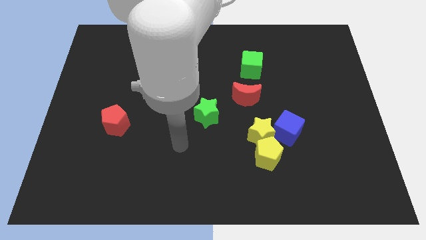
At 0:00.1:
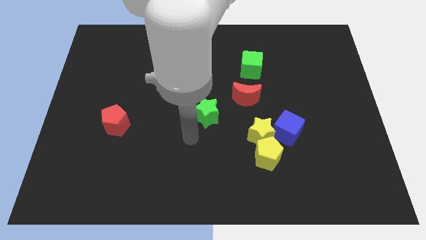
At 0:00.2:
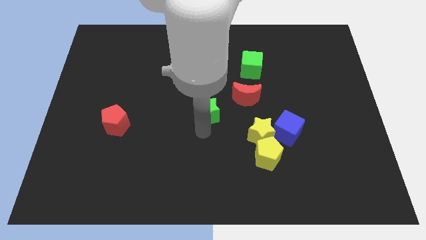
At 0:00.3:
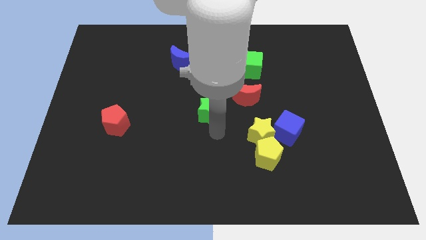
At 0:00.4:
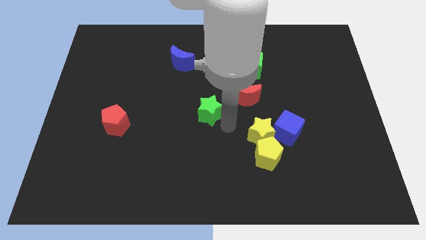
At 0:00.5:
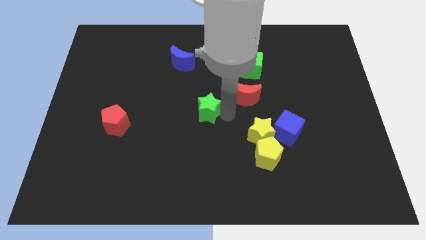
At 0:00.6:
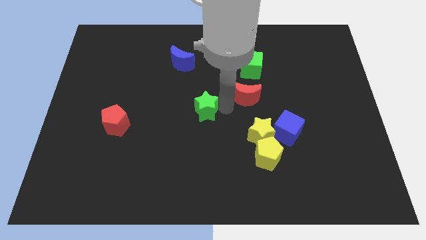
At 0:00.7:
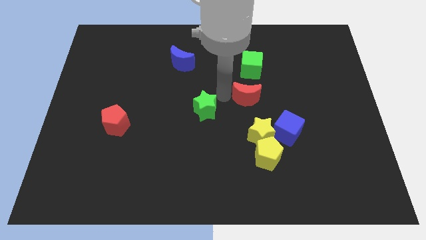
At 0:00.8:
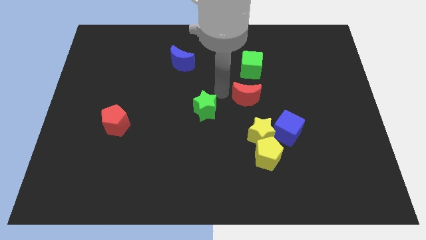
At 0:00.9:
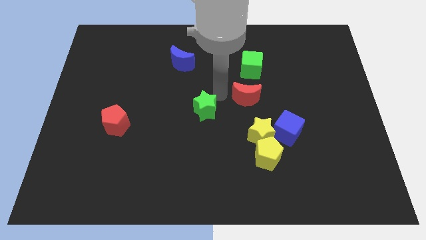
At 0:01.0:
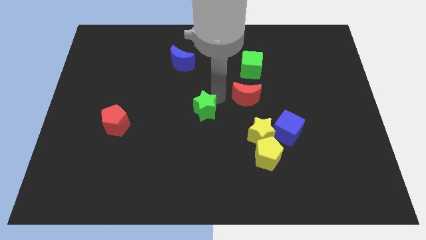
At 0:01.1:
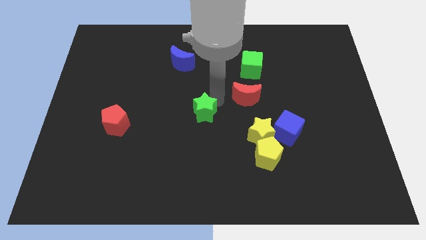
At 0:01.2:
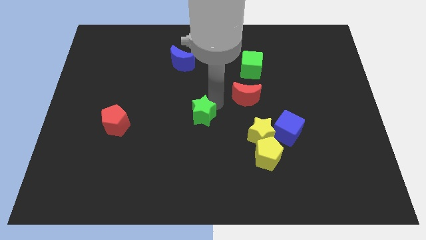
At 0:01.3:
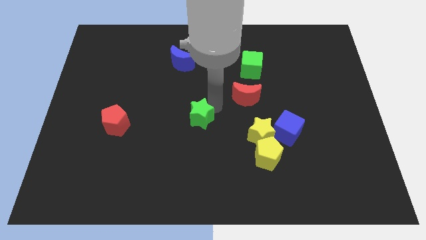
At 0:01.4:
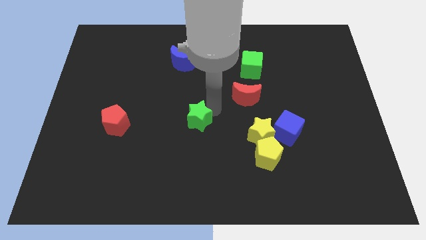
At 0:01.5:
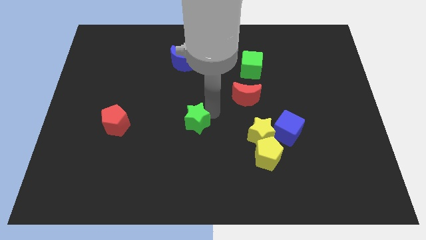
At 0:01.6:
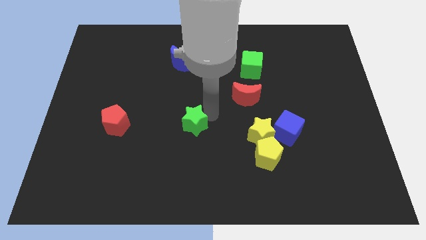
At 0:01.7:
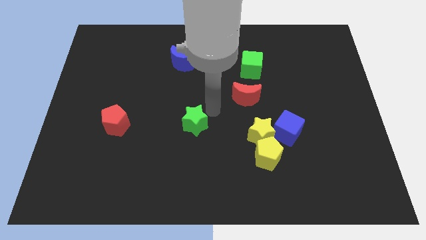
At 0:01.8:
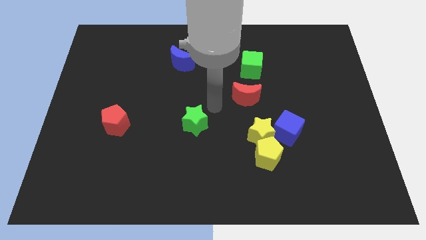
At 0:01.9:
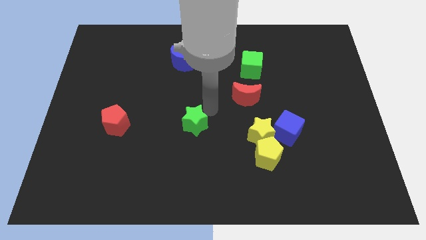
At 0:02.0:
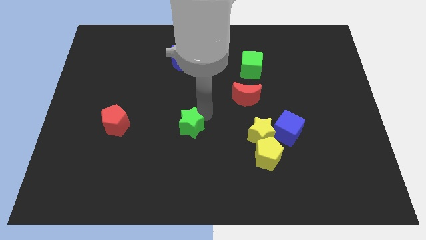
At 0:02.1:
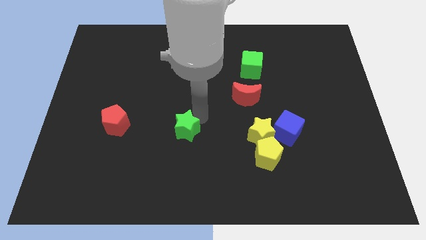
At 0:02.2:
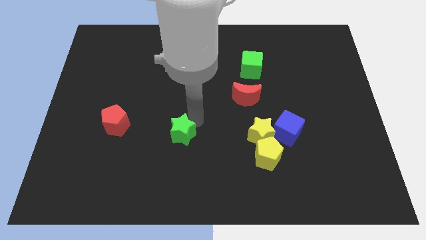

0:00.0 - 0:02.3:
slightly slide the green star down and then left

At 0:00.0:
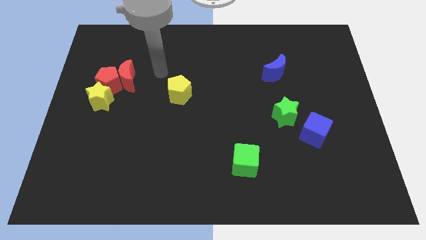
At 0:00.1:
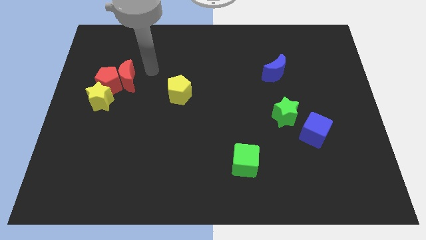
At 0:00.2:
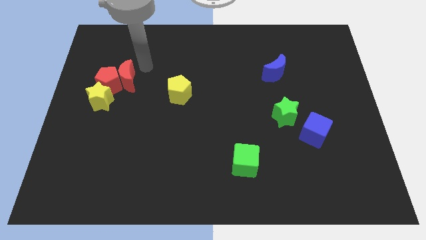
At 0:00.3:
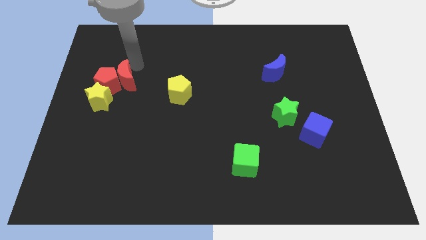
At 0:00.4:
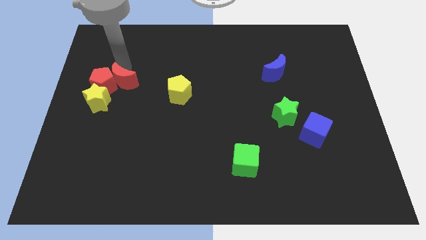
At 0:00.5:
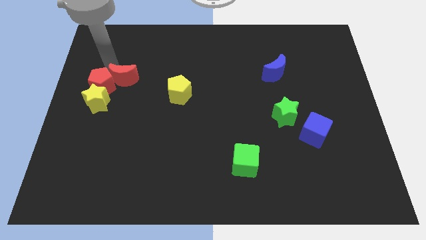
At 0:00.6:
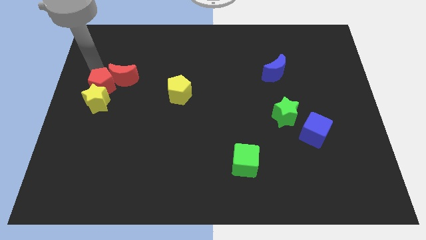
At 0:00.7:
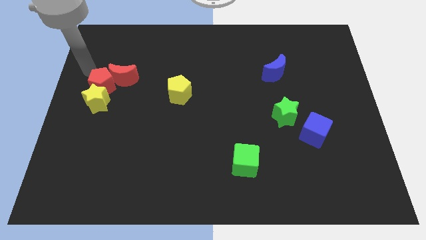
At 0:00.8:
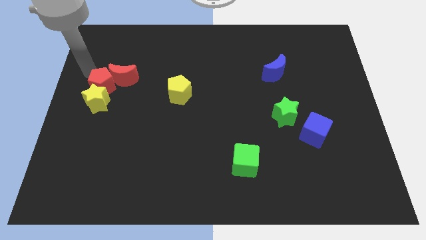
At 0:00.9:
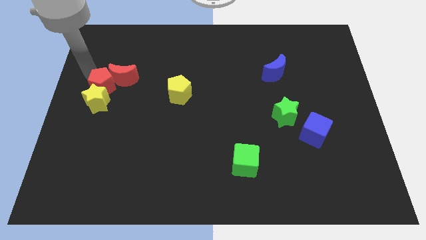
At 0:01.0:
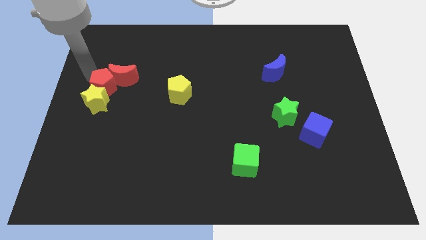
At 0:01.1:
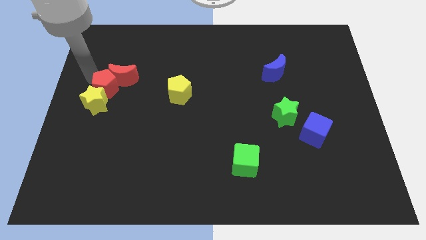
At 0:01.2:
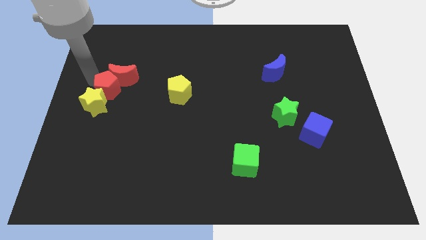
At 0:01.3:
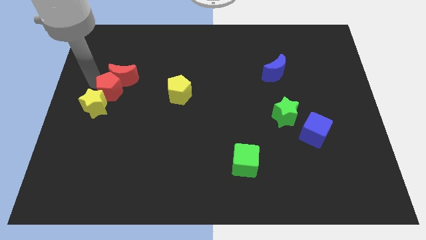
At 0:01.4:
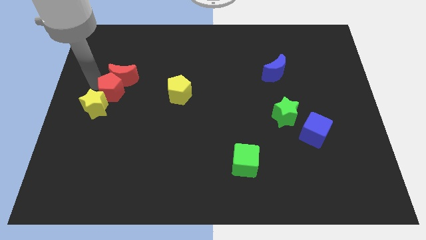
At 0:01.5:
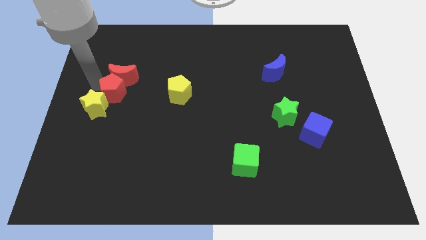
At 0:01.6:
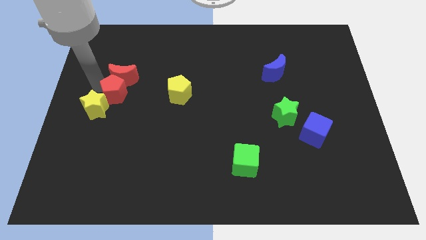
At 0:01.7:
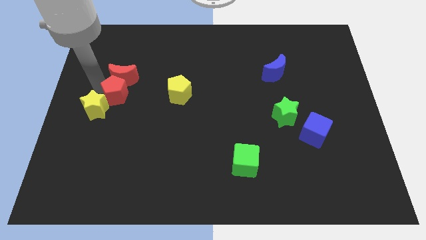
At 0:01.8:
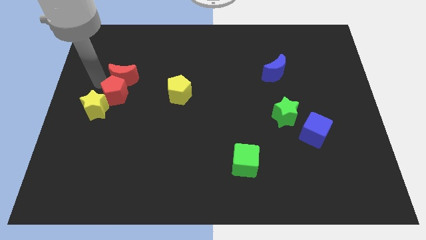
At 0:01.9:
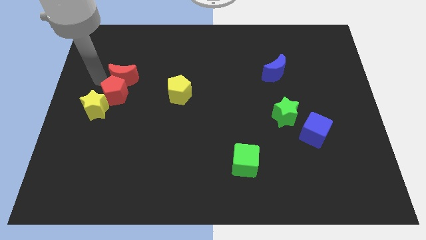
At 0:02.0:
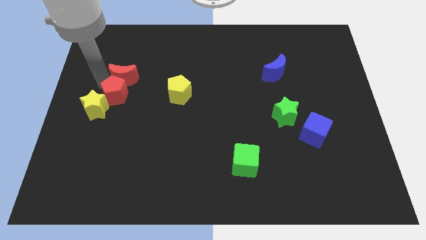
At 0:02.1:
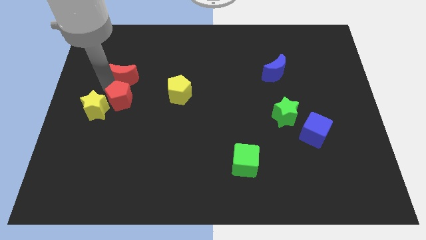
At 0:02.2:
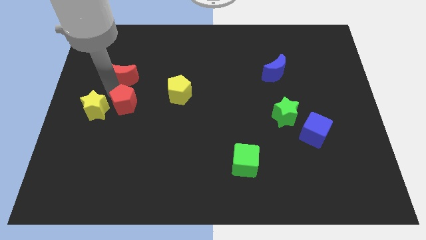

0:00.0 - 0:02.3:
slightly push the red pentagon down and right

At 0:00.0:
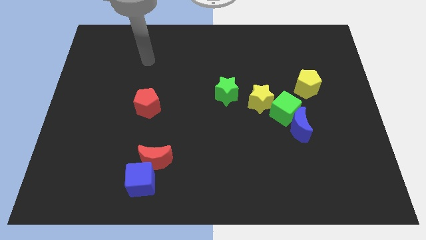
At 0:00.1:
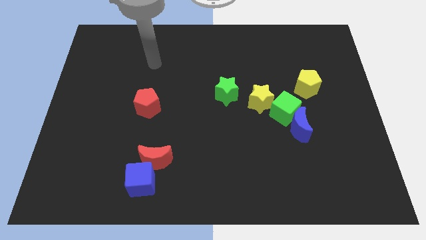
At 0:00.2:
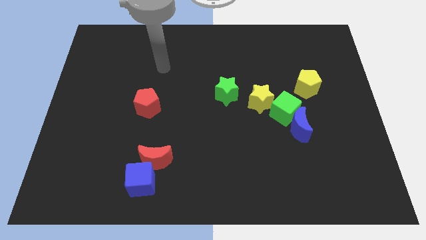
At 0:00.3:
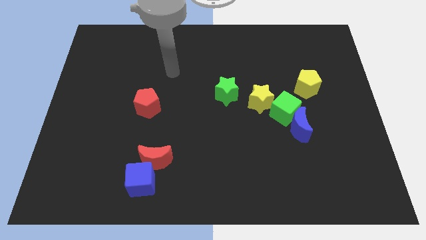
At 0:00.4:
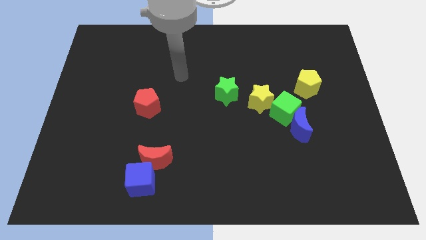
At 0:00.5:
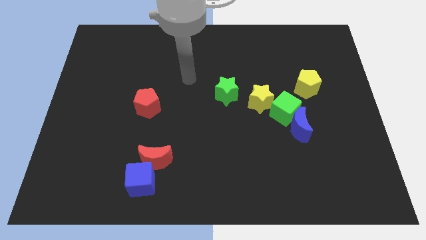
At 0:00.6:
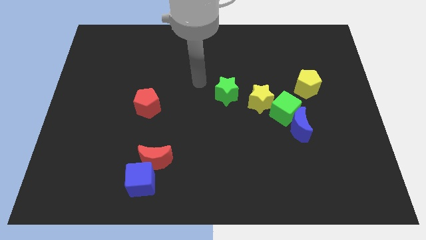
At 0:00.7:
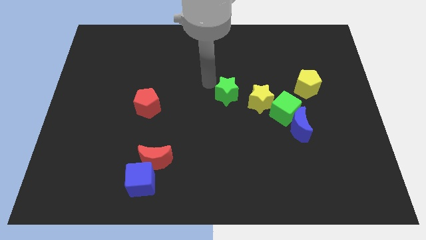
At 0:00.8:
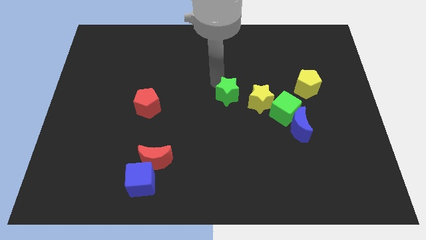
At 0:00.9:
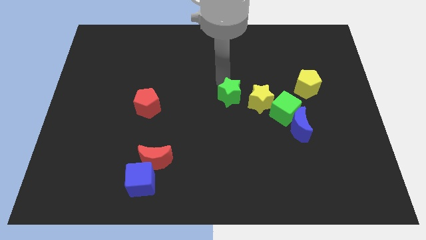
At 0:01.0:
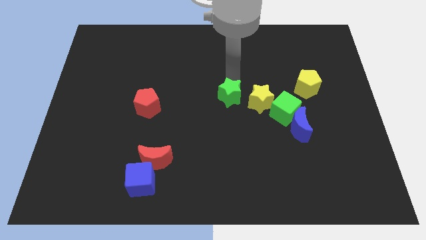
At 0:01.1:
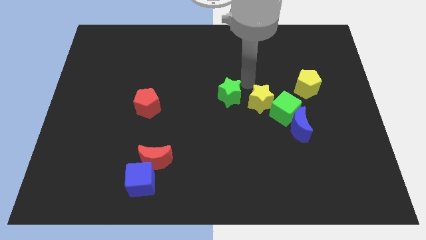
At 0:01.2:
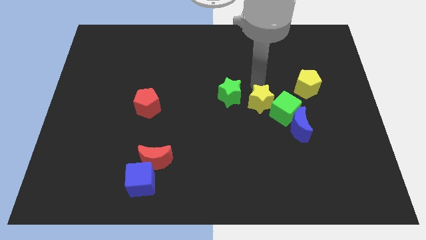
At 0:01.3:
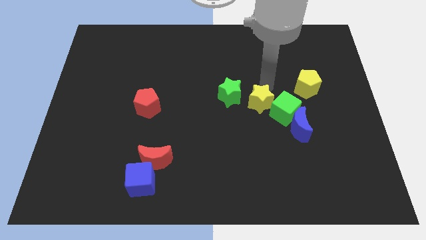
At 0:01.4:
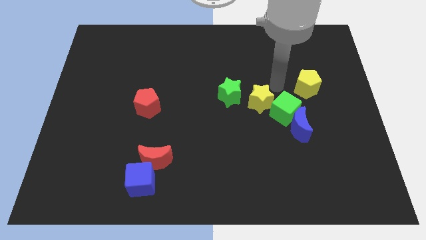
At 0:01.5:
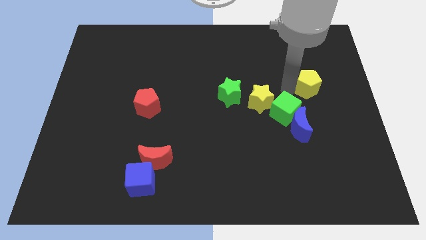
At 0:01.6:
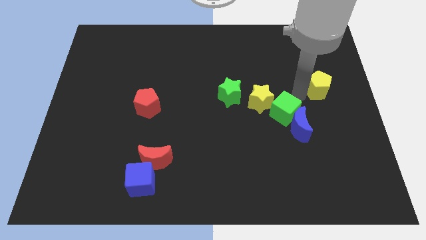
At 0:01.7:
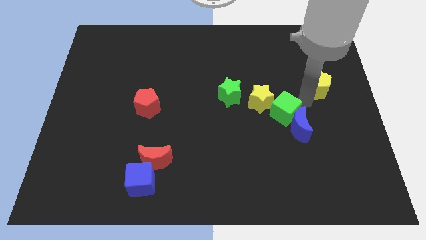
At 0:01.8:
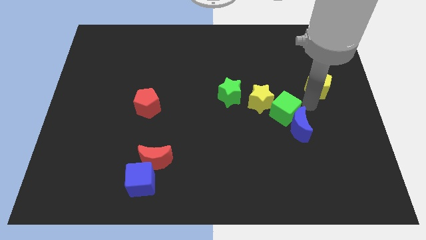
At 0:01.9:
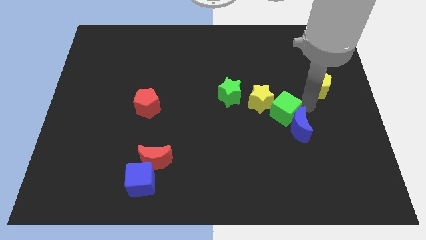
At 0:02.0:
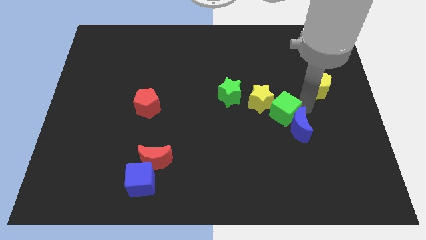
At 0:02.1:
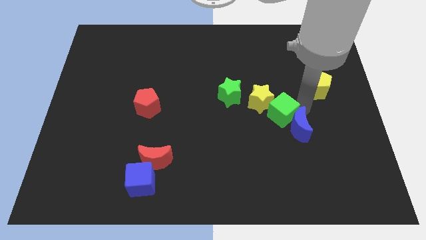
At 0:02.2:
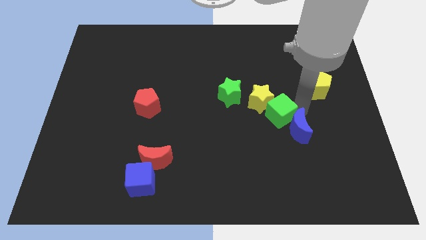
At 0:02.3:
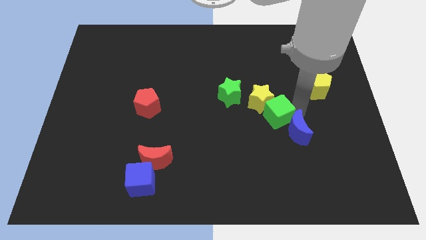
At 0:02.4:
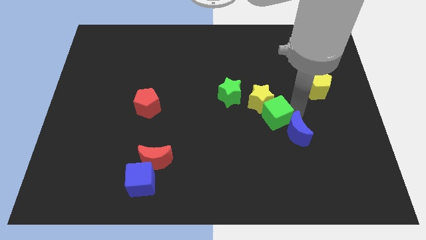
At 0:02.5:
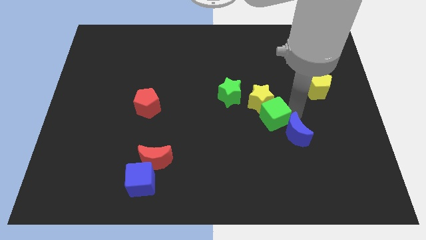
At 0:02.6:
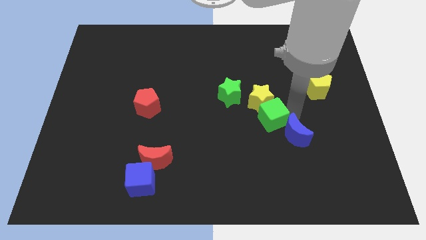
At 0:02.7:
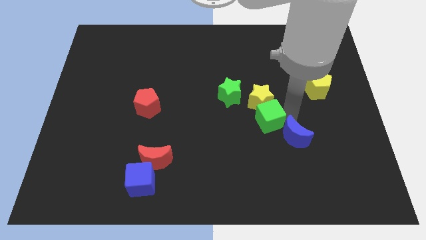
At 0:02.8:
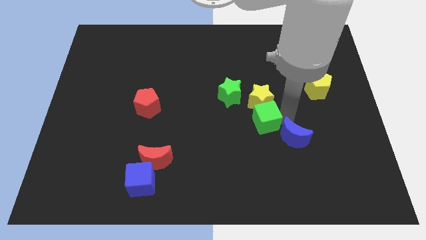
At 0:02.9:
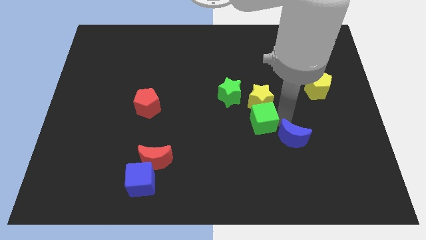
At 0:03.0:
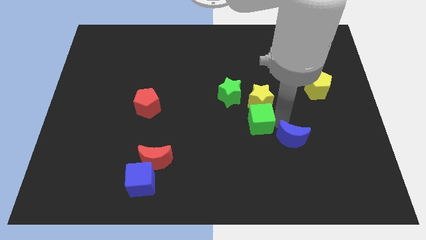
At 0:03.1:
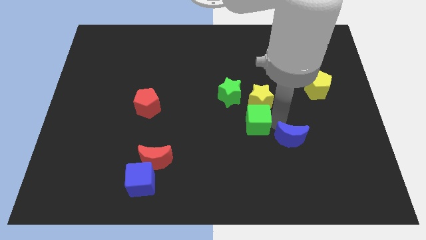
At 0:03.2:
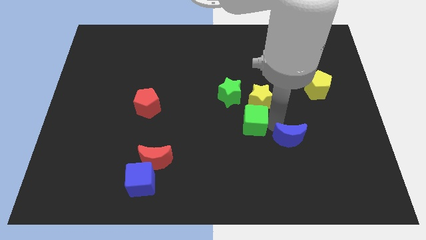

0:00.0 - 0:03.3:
push the green cube to the left slightly

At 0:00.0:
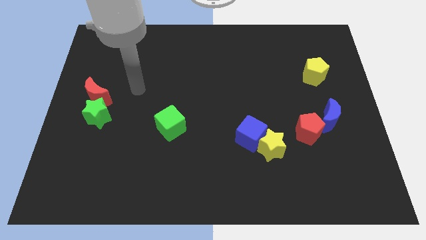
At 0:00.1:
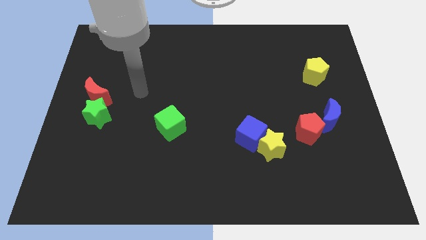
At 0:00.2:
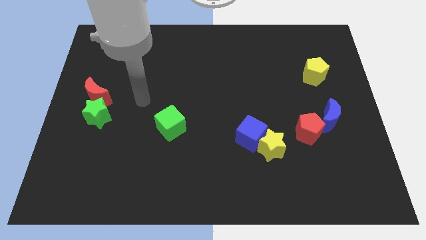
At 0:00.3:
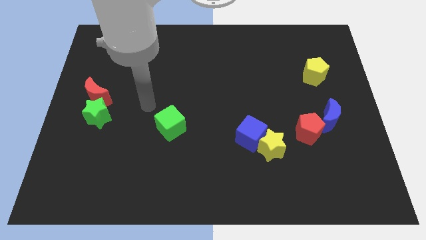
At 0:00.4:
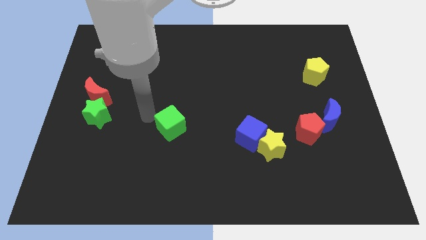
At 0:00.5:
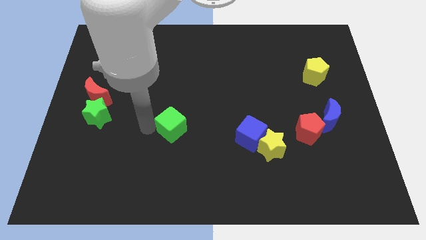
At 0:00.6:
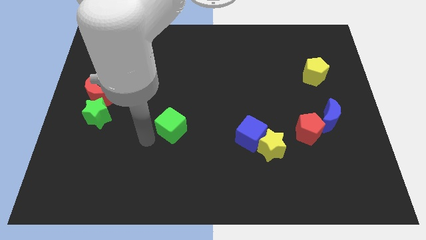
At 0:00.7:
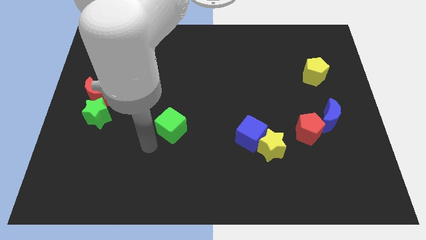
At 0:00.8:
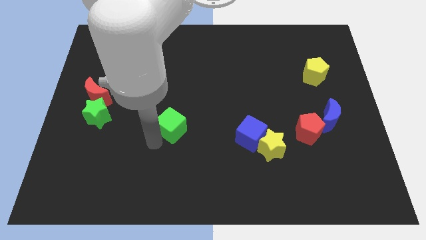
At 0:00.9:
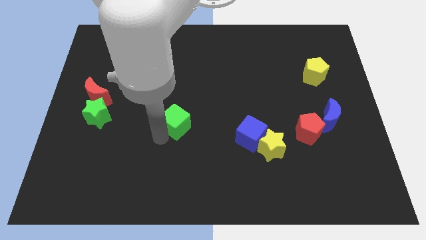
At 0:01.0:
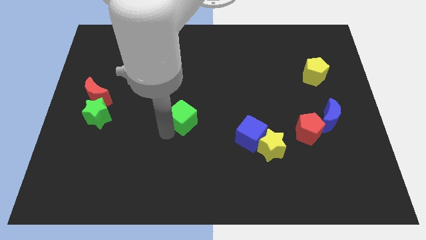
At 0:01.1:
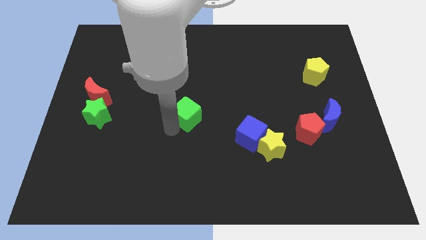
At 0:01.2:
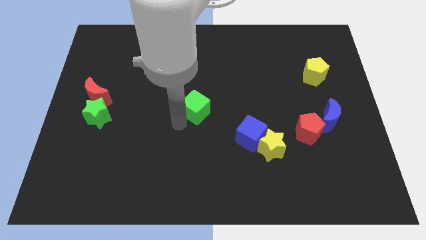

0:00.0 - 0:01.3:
slightly move the green cube upwards and right
